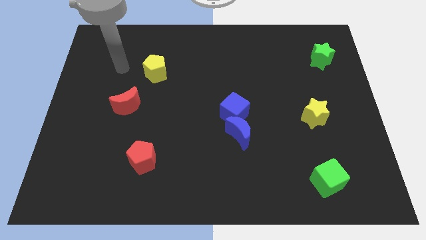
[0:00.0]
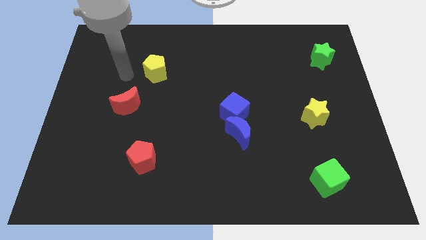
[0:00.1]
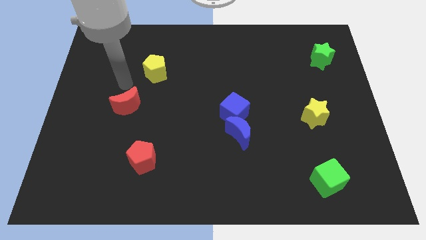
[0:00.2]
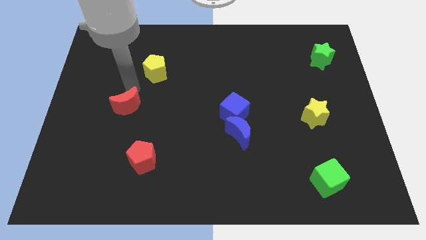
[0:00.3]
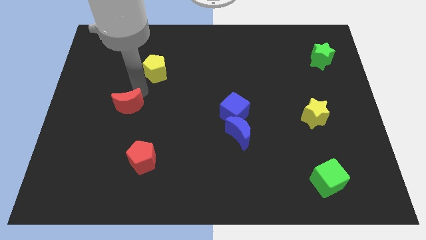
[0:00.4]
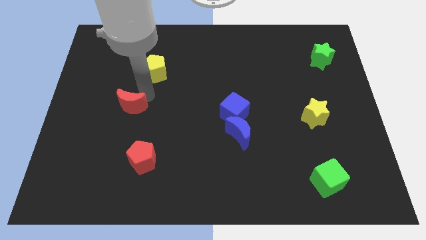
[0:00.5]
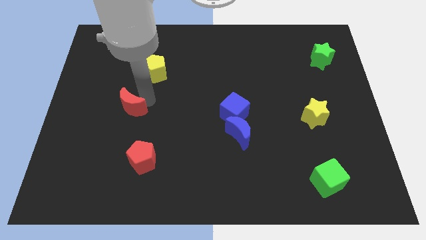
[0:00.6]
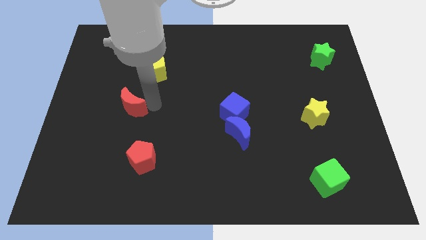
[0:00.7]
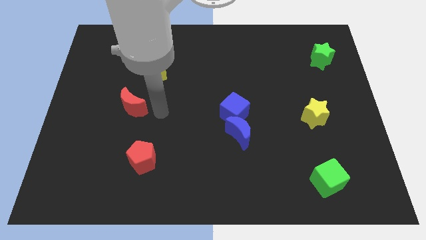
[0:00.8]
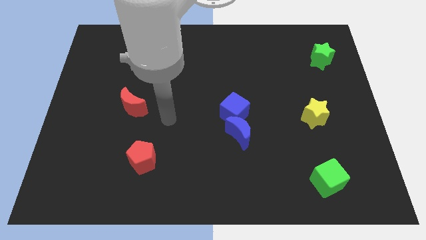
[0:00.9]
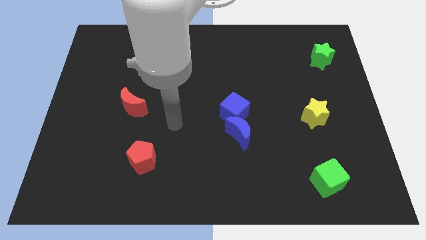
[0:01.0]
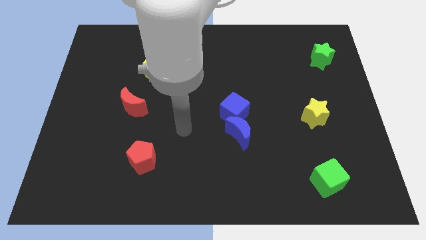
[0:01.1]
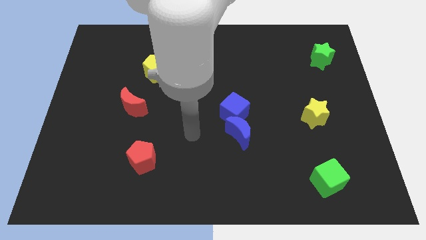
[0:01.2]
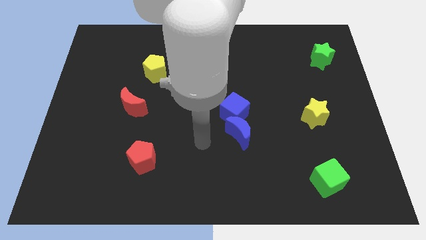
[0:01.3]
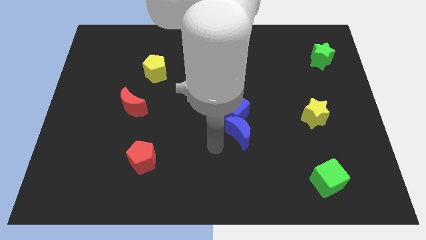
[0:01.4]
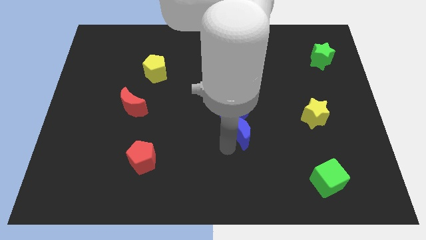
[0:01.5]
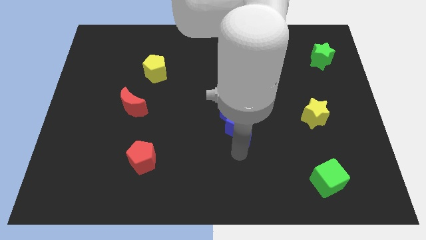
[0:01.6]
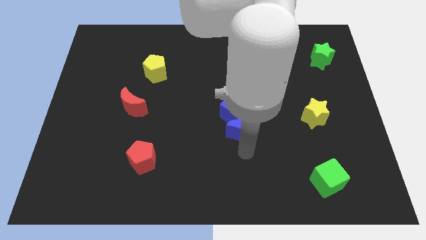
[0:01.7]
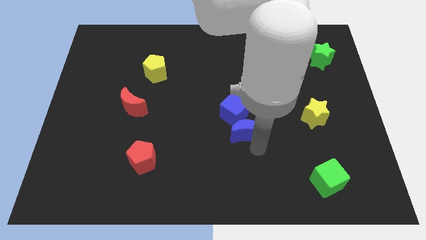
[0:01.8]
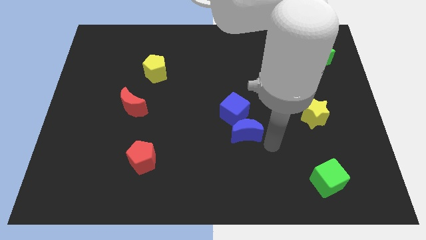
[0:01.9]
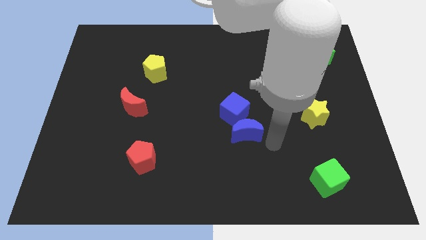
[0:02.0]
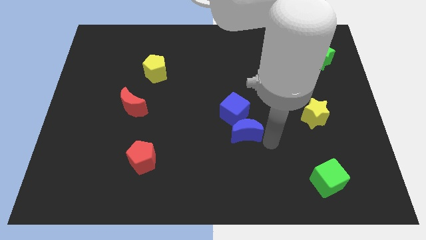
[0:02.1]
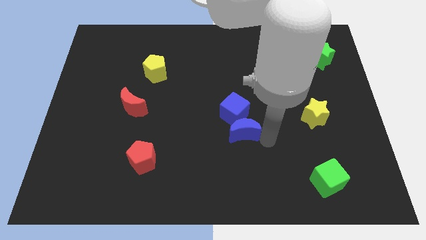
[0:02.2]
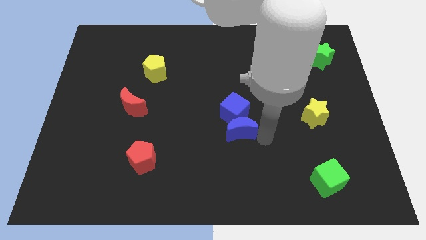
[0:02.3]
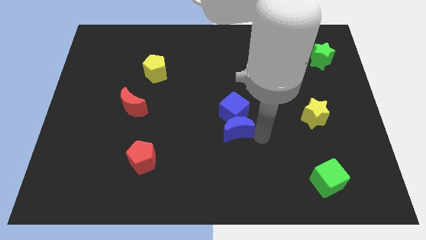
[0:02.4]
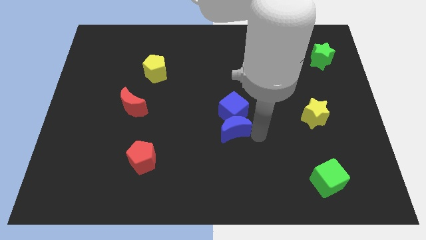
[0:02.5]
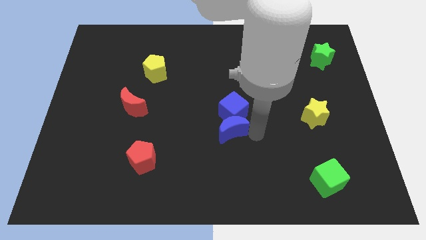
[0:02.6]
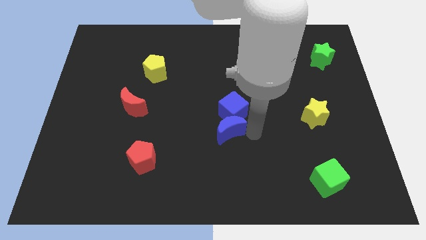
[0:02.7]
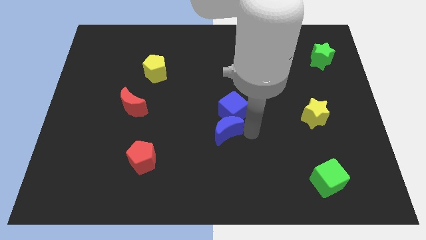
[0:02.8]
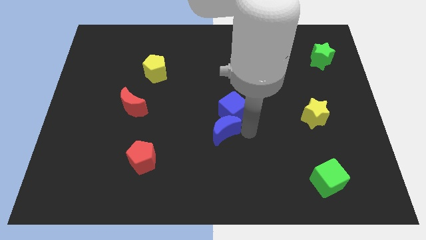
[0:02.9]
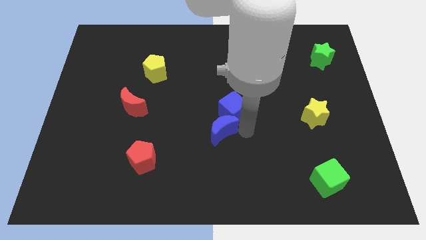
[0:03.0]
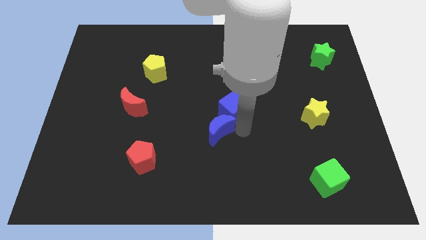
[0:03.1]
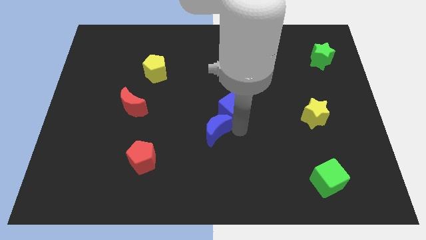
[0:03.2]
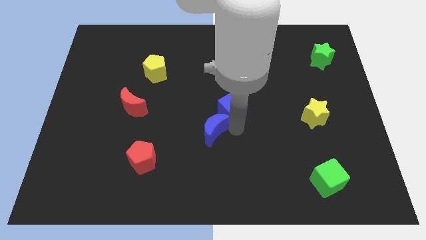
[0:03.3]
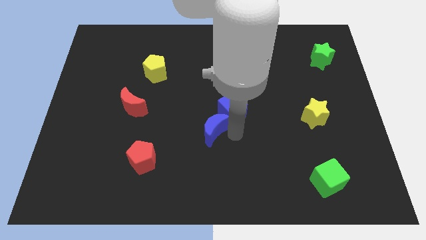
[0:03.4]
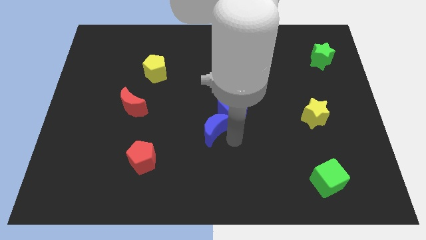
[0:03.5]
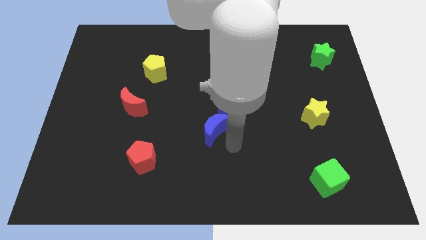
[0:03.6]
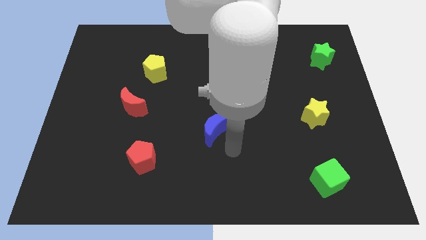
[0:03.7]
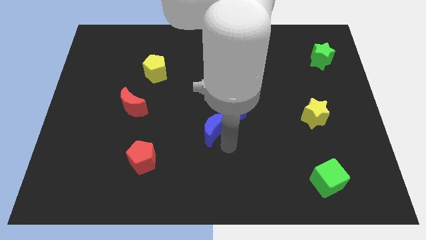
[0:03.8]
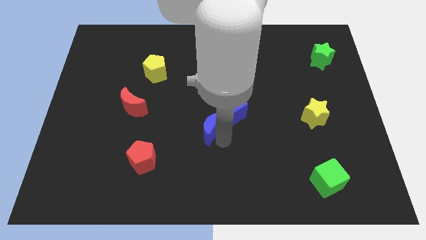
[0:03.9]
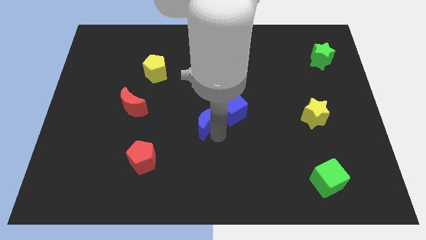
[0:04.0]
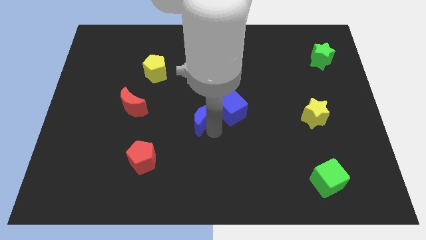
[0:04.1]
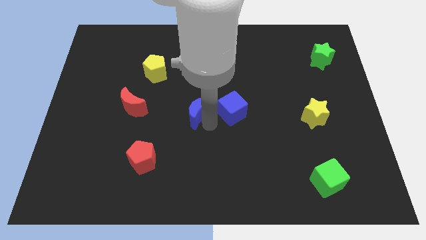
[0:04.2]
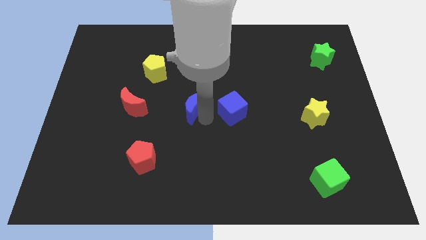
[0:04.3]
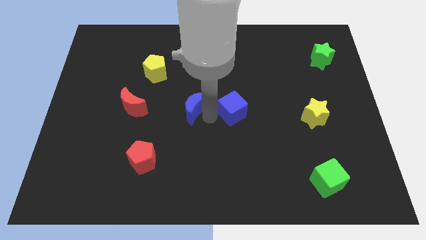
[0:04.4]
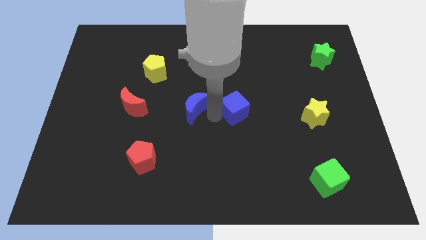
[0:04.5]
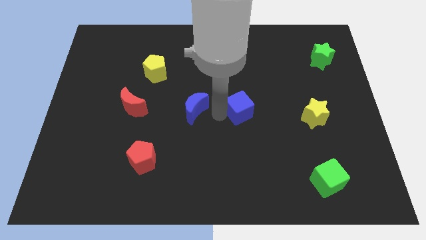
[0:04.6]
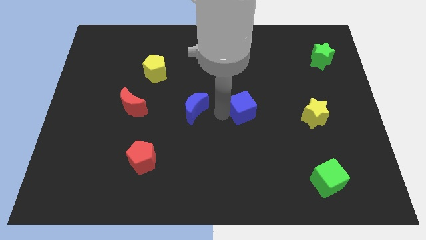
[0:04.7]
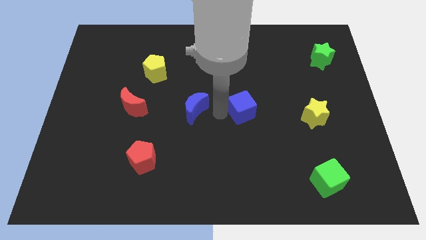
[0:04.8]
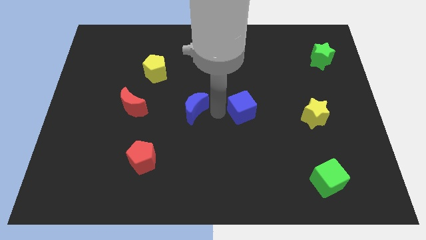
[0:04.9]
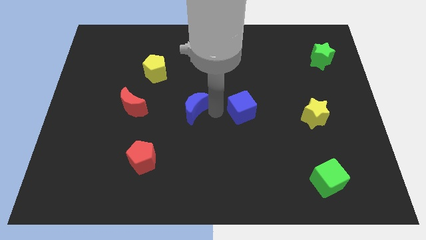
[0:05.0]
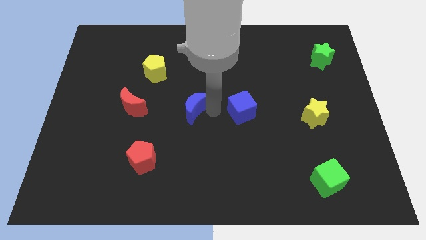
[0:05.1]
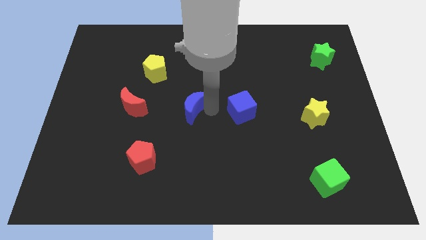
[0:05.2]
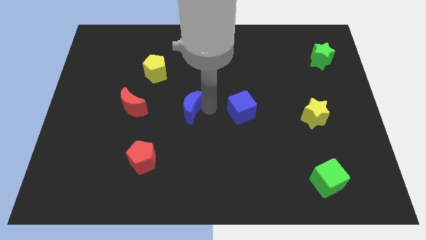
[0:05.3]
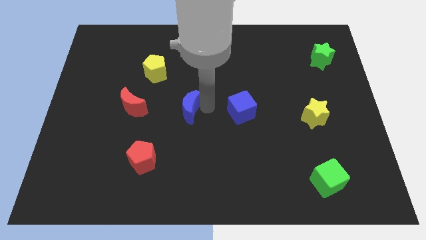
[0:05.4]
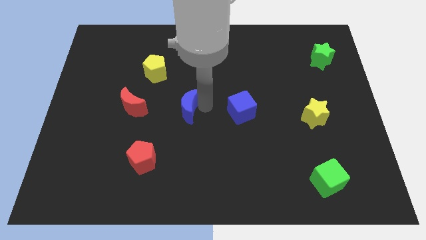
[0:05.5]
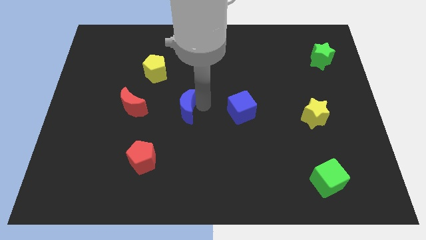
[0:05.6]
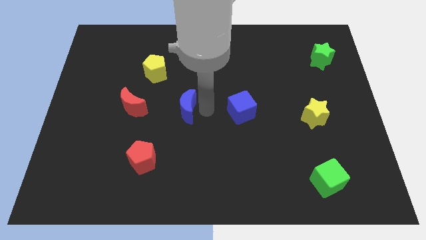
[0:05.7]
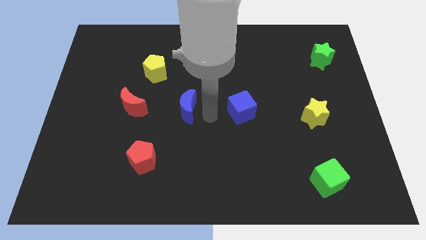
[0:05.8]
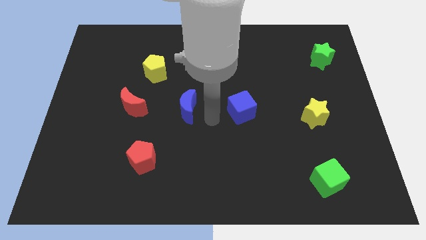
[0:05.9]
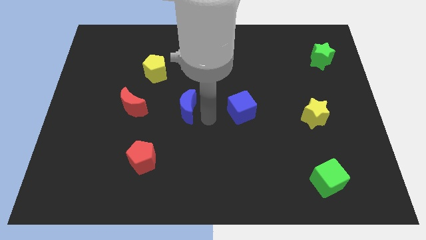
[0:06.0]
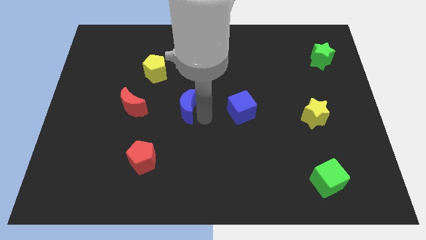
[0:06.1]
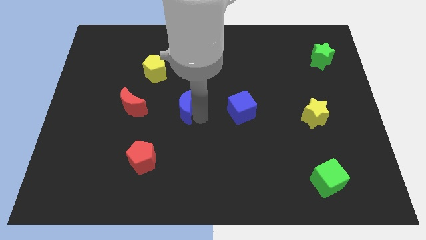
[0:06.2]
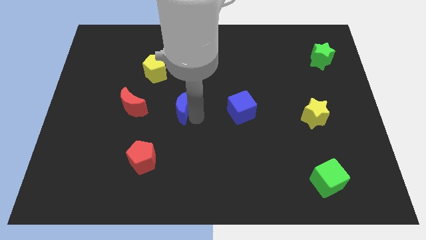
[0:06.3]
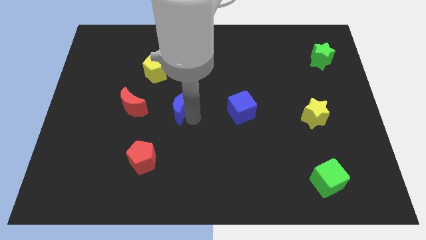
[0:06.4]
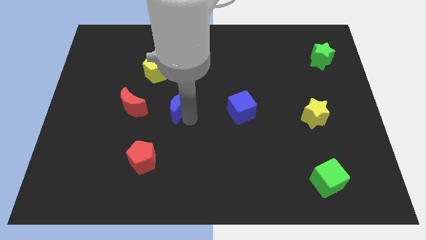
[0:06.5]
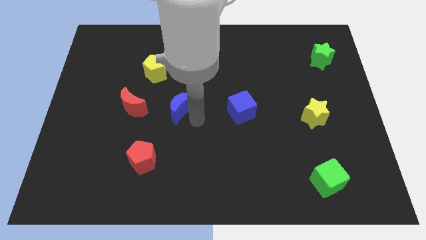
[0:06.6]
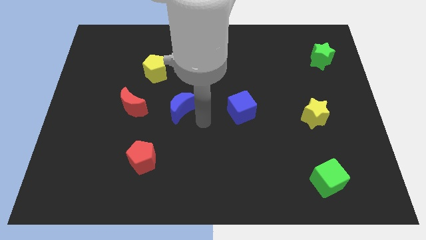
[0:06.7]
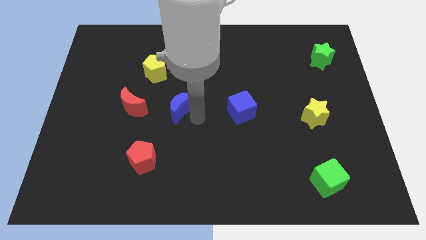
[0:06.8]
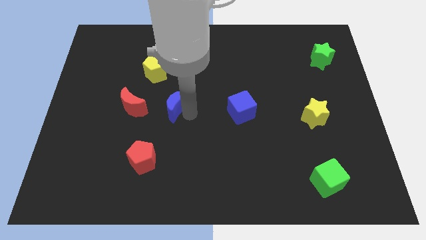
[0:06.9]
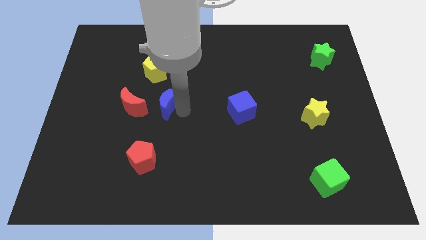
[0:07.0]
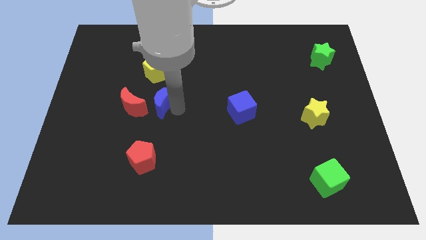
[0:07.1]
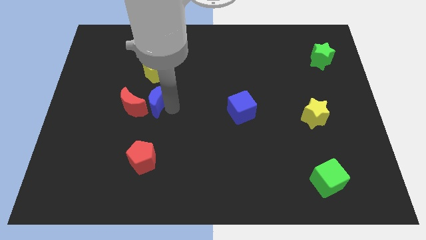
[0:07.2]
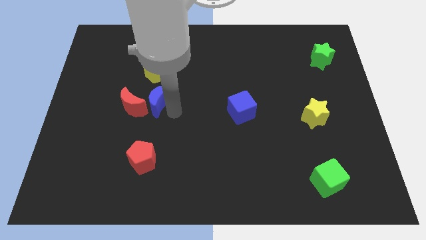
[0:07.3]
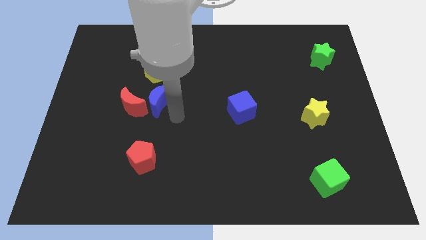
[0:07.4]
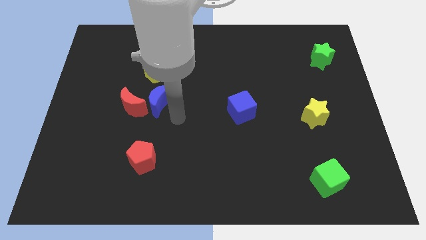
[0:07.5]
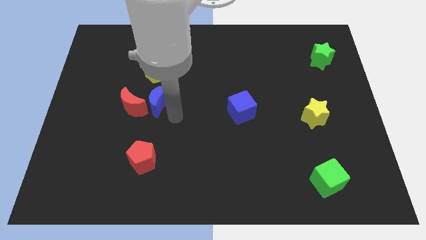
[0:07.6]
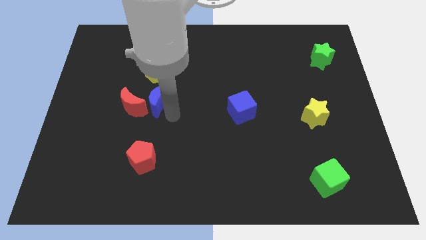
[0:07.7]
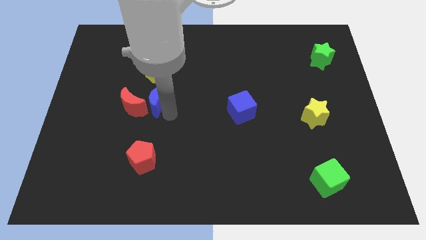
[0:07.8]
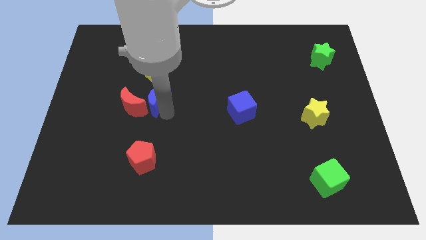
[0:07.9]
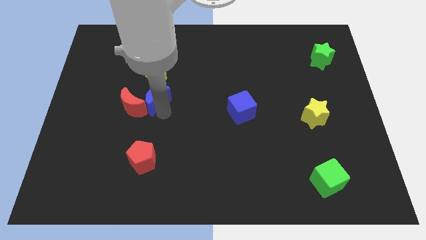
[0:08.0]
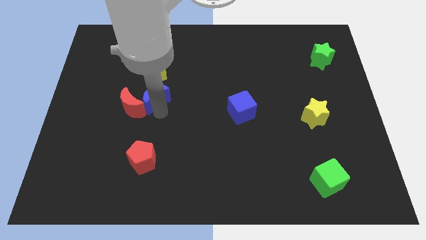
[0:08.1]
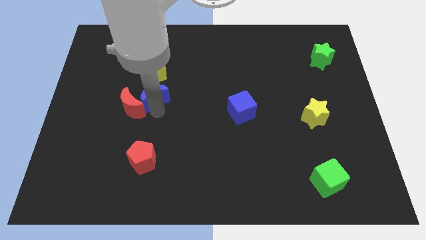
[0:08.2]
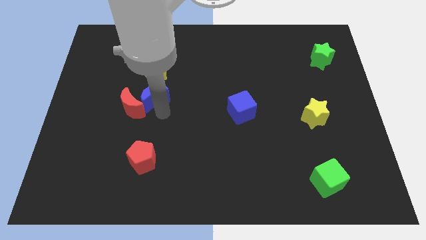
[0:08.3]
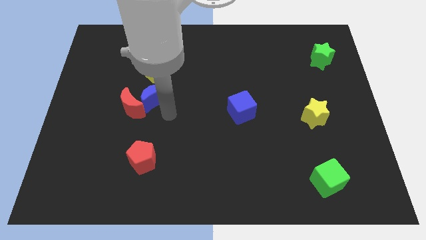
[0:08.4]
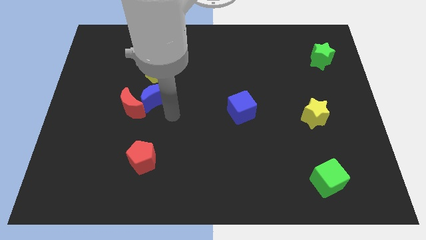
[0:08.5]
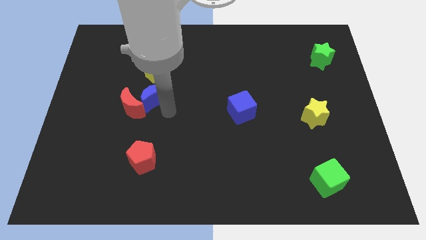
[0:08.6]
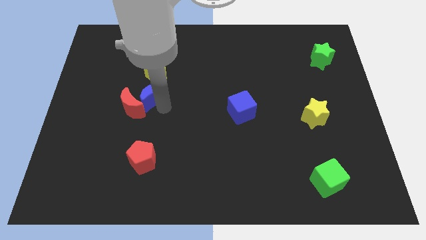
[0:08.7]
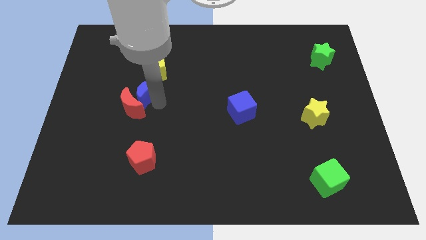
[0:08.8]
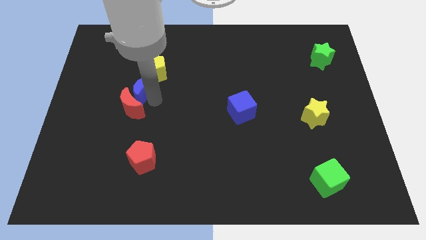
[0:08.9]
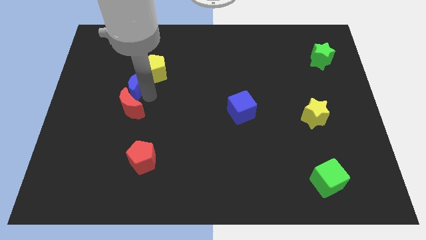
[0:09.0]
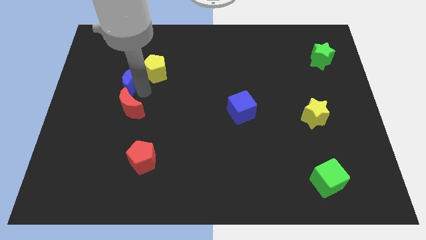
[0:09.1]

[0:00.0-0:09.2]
move the blue moon to the left of the yellow pentagon
